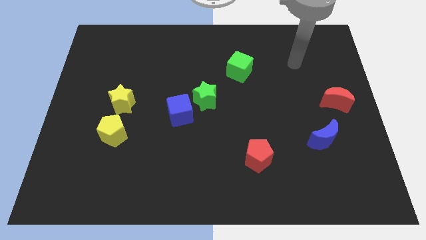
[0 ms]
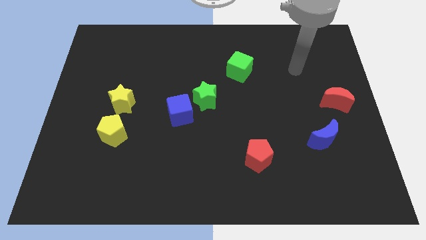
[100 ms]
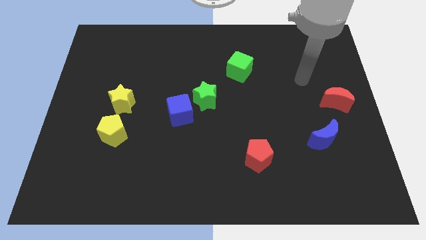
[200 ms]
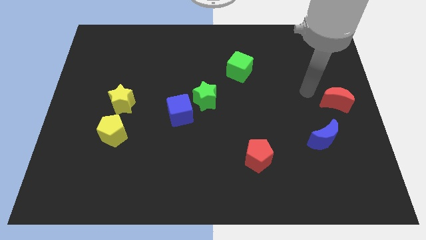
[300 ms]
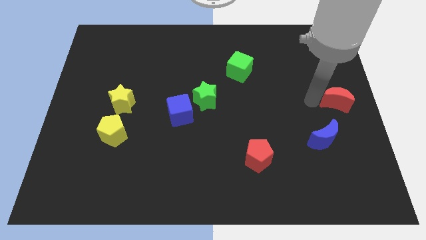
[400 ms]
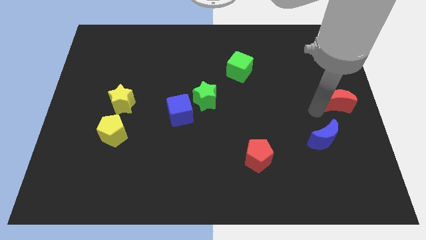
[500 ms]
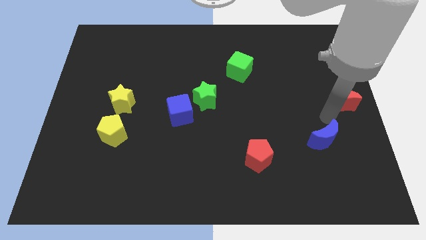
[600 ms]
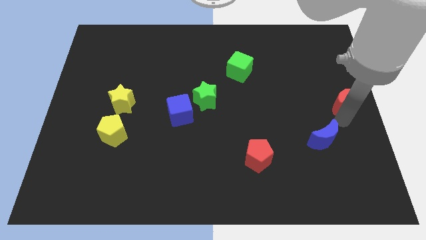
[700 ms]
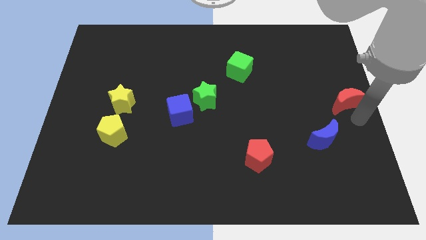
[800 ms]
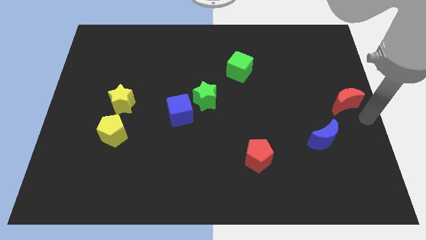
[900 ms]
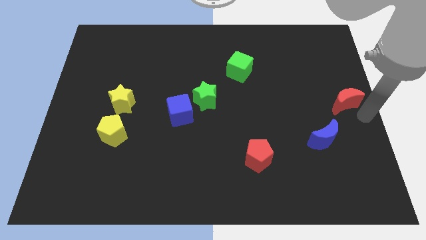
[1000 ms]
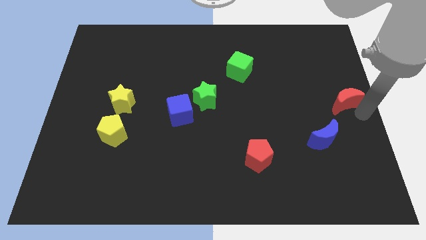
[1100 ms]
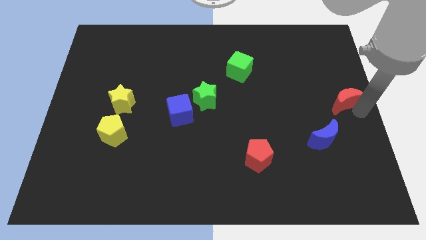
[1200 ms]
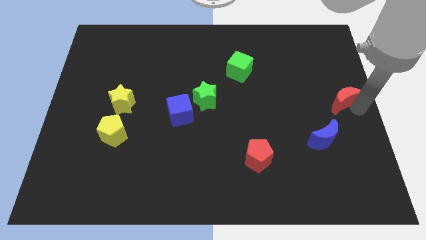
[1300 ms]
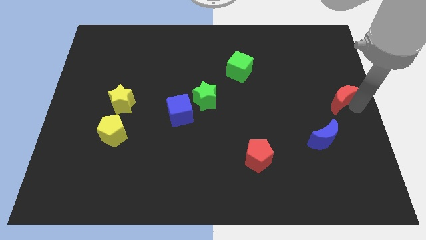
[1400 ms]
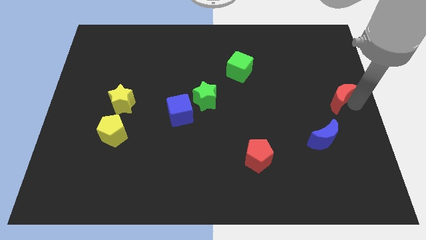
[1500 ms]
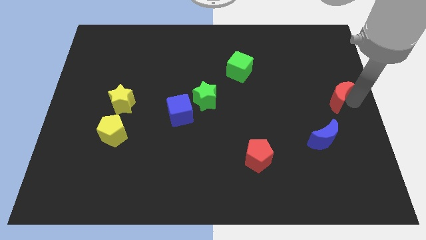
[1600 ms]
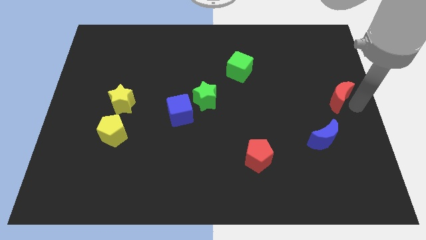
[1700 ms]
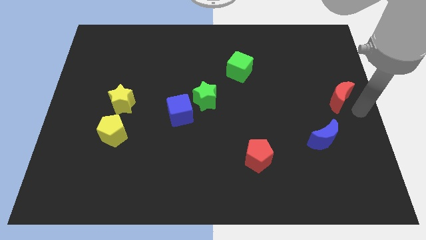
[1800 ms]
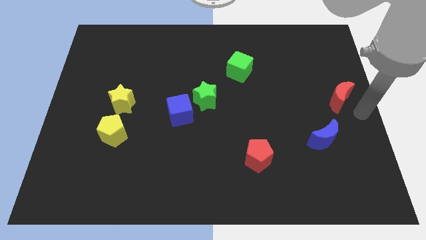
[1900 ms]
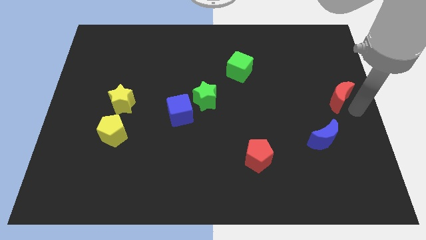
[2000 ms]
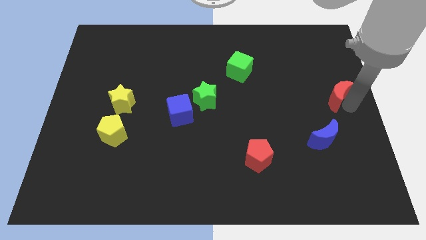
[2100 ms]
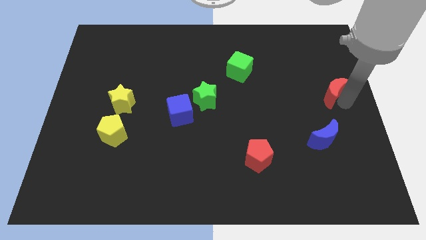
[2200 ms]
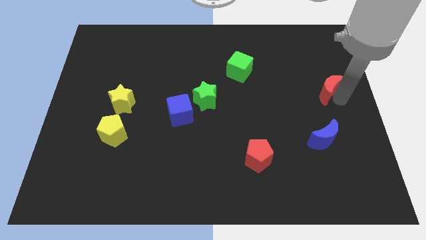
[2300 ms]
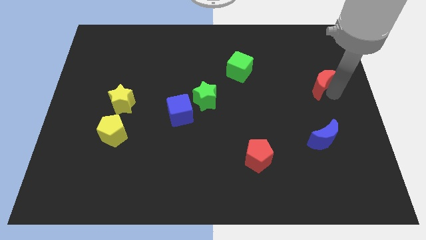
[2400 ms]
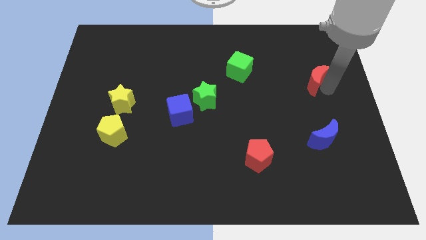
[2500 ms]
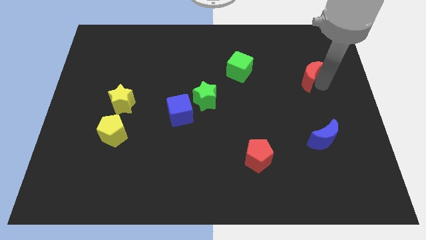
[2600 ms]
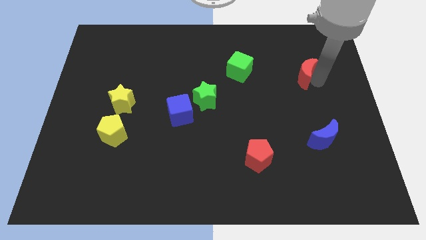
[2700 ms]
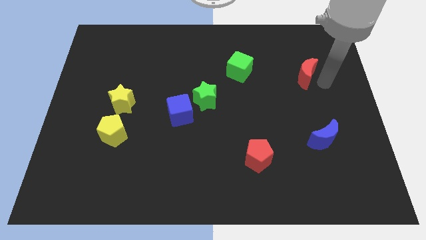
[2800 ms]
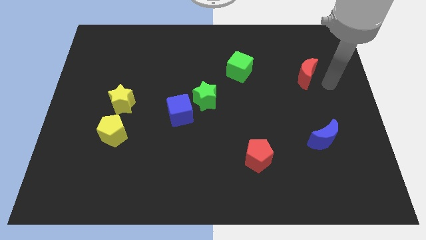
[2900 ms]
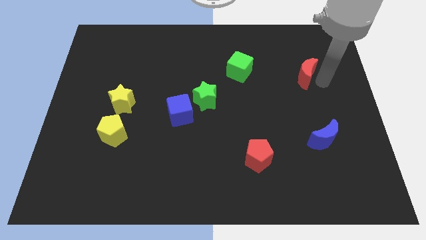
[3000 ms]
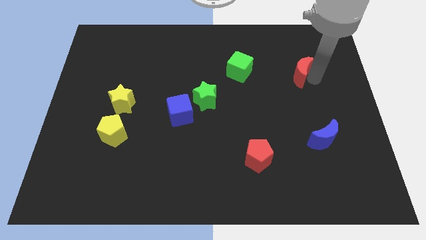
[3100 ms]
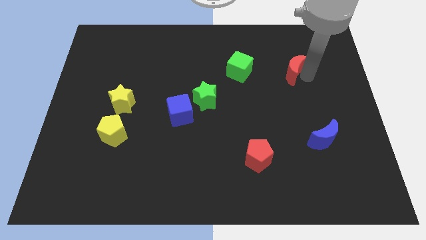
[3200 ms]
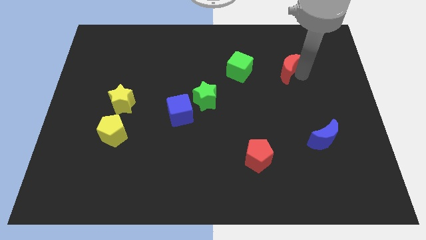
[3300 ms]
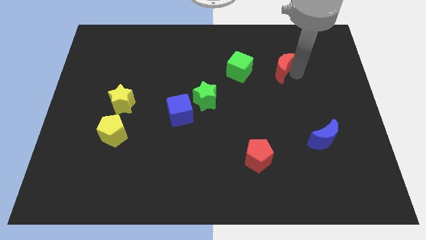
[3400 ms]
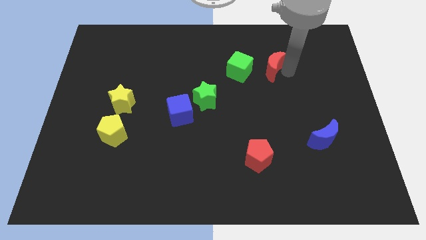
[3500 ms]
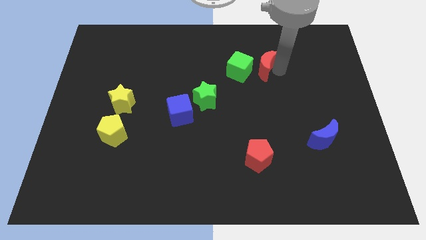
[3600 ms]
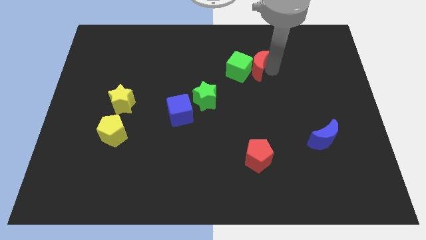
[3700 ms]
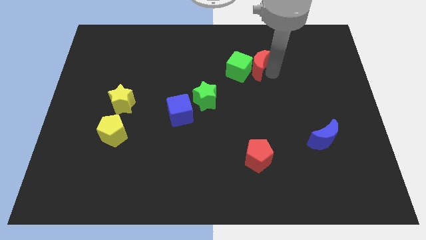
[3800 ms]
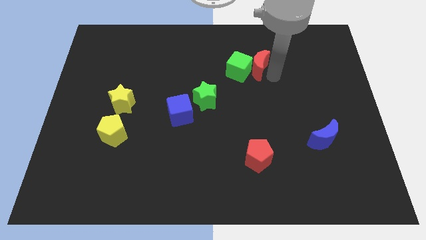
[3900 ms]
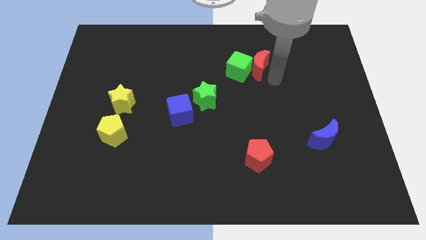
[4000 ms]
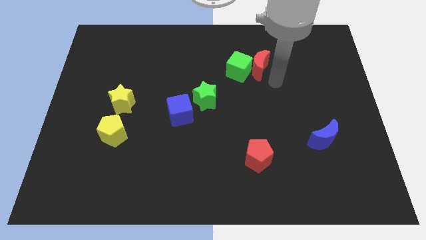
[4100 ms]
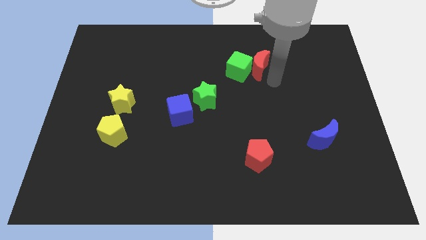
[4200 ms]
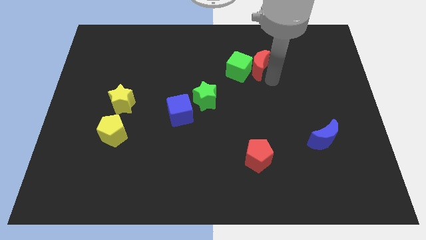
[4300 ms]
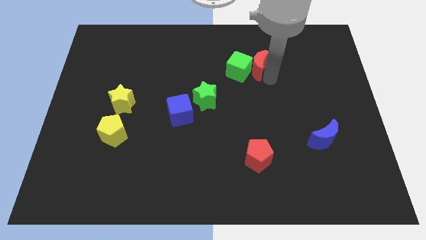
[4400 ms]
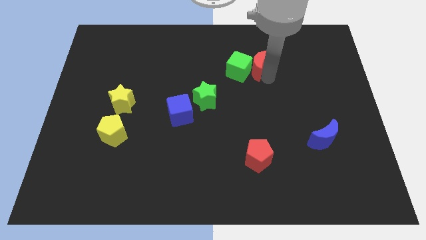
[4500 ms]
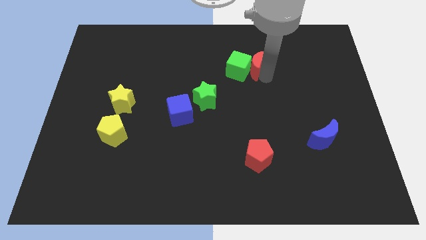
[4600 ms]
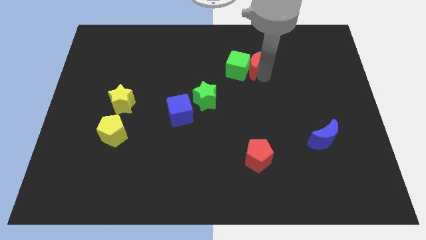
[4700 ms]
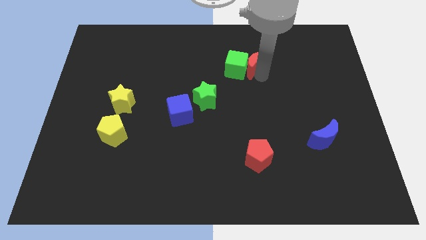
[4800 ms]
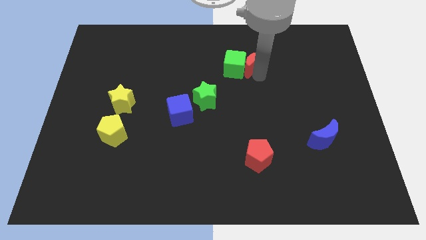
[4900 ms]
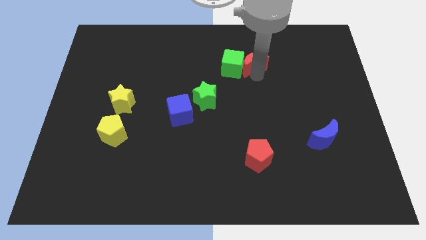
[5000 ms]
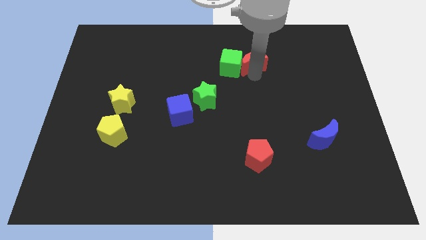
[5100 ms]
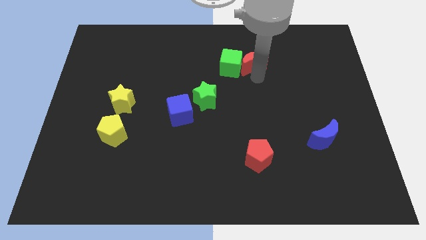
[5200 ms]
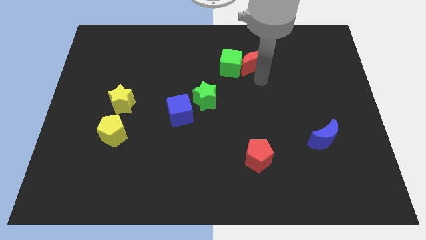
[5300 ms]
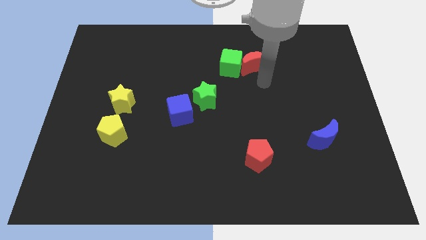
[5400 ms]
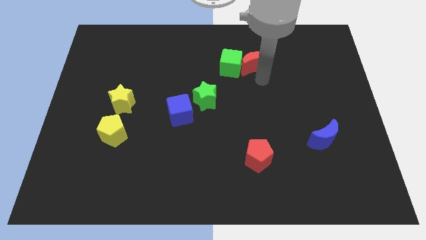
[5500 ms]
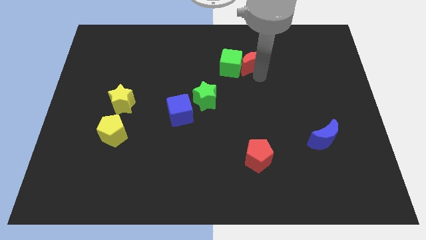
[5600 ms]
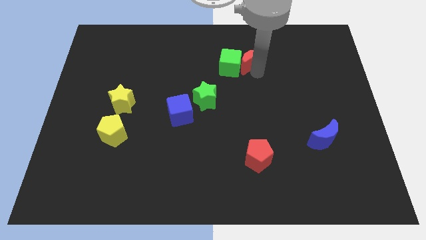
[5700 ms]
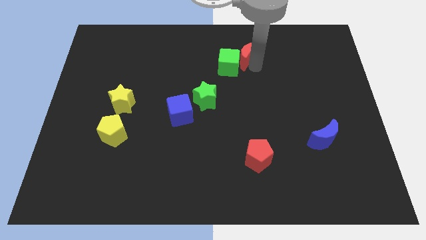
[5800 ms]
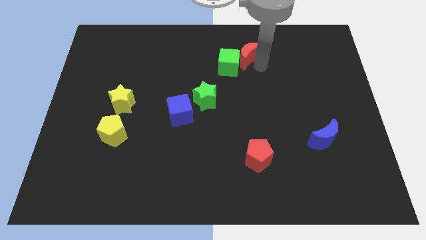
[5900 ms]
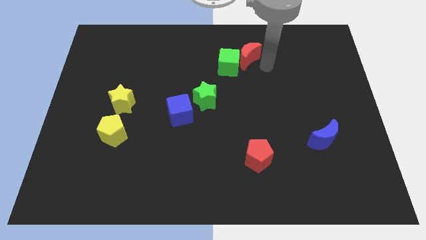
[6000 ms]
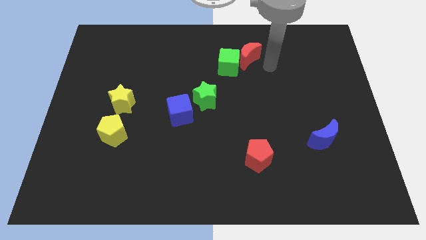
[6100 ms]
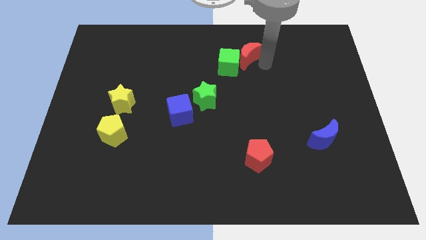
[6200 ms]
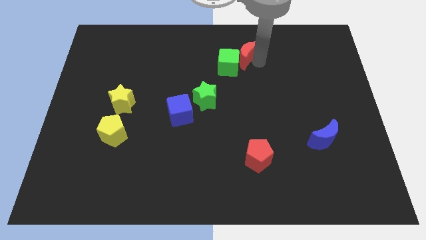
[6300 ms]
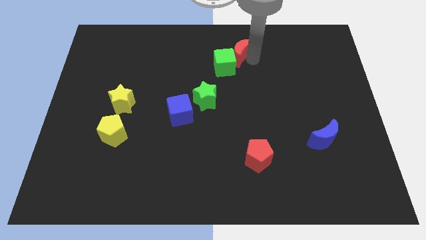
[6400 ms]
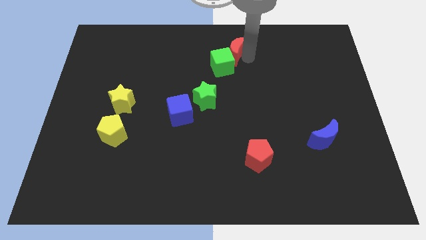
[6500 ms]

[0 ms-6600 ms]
move the red moon to the towards your base
